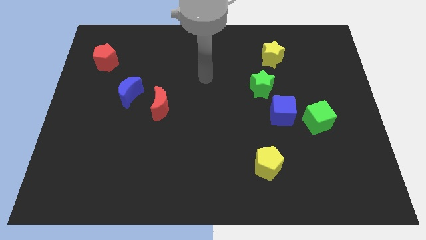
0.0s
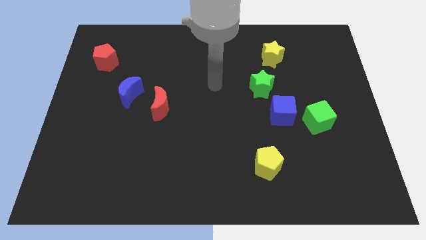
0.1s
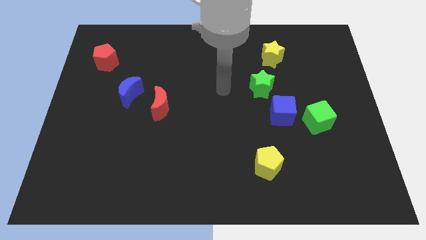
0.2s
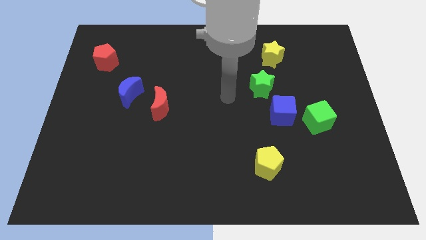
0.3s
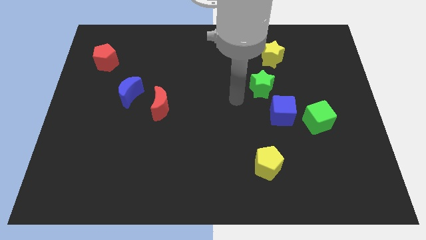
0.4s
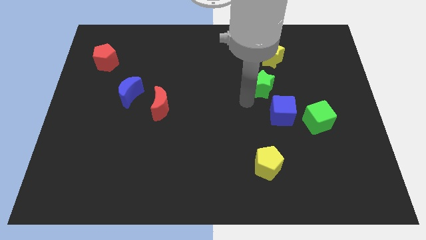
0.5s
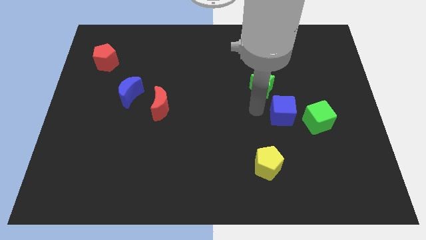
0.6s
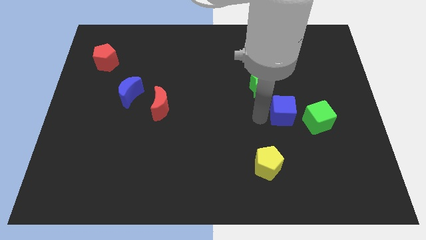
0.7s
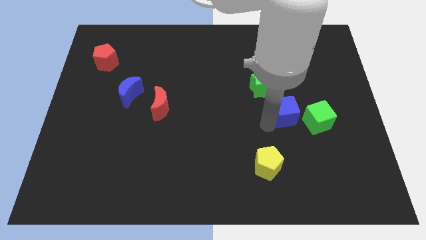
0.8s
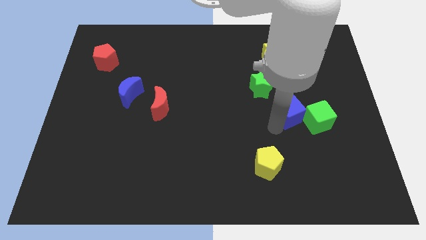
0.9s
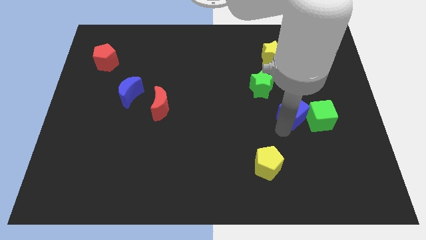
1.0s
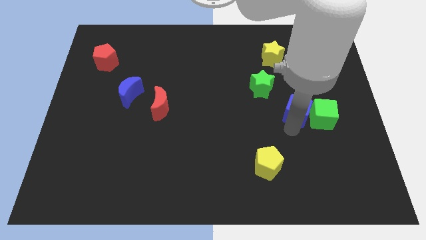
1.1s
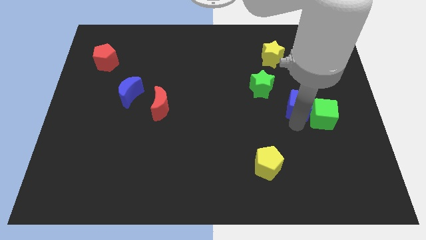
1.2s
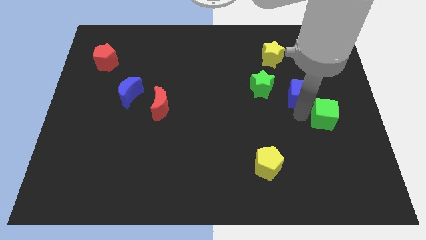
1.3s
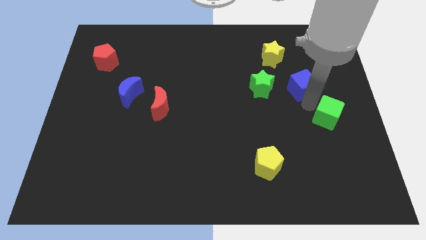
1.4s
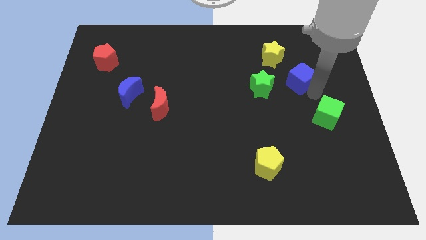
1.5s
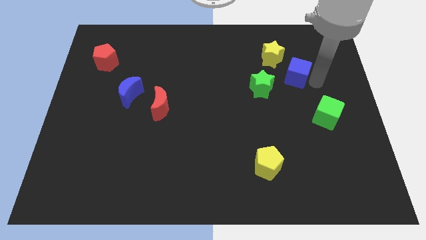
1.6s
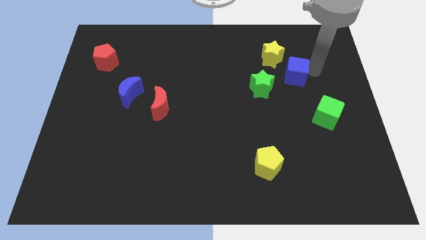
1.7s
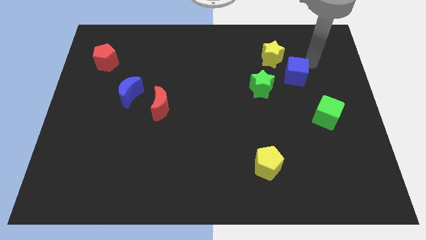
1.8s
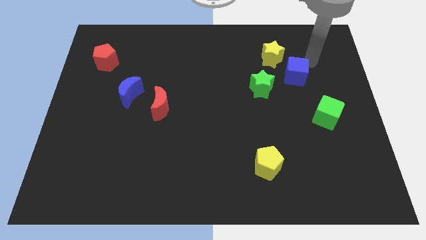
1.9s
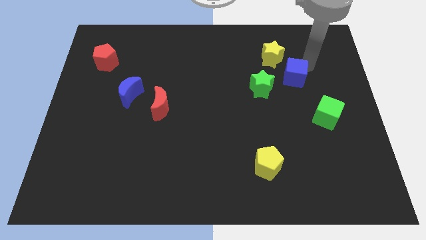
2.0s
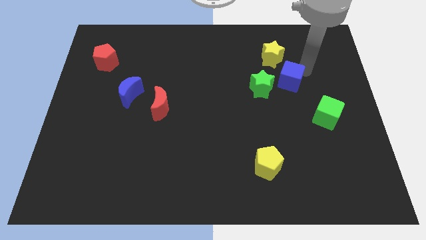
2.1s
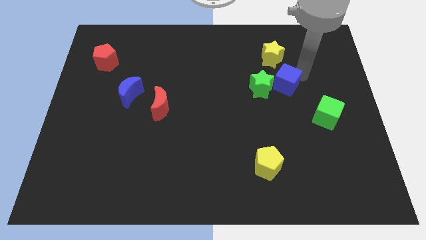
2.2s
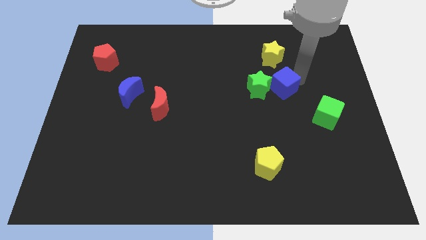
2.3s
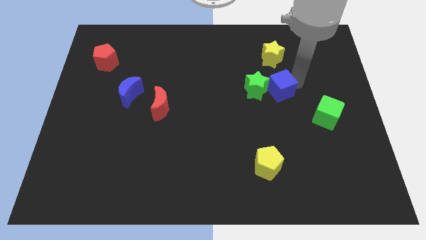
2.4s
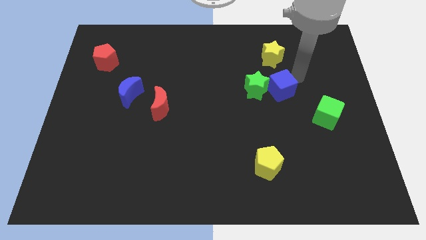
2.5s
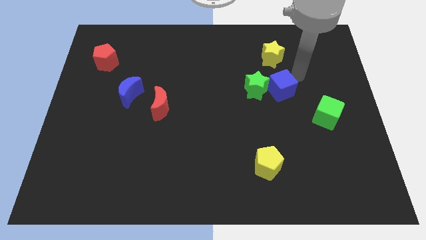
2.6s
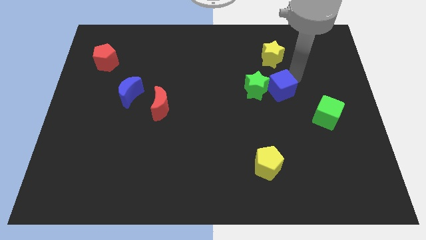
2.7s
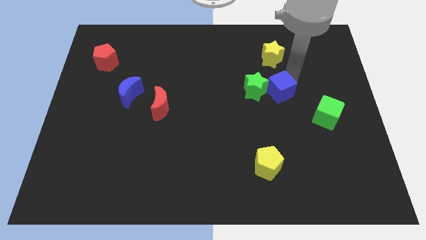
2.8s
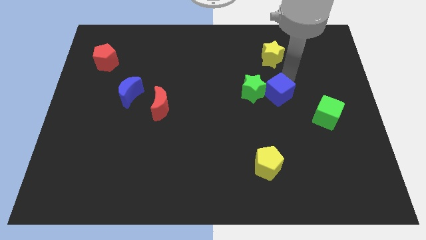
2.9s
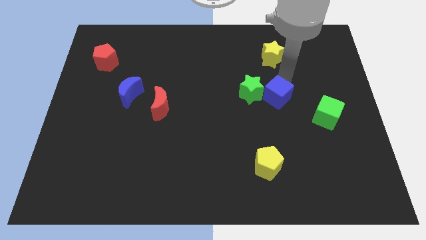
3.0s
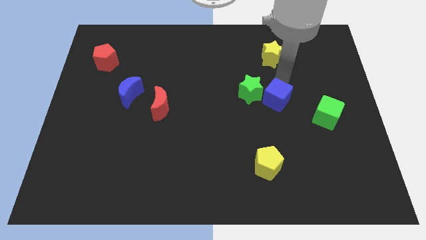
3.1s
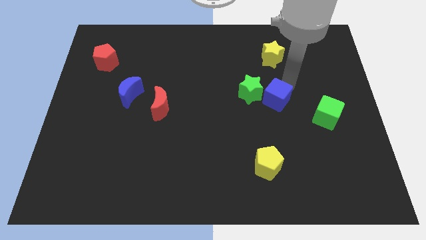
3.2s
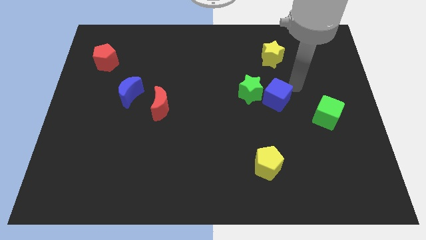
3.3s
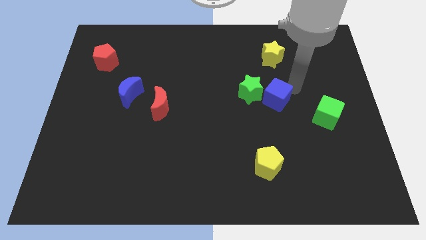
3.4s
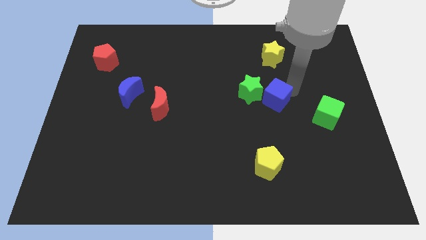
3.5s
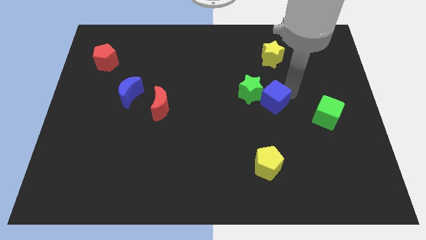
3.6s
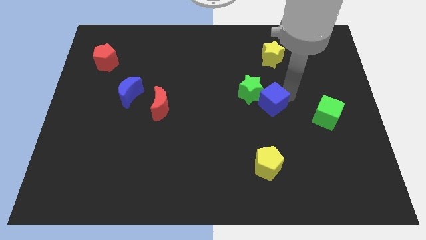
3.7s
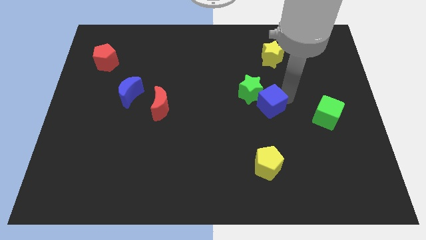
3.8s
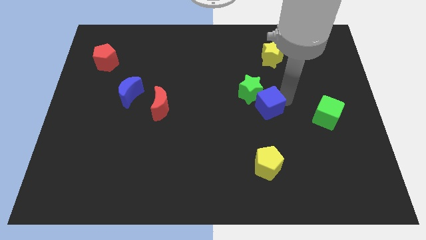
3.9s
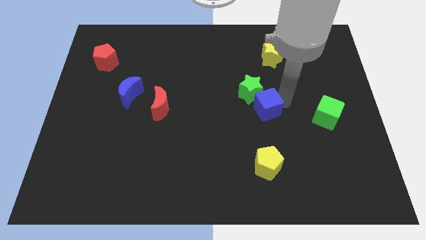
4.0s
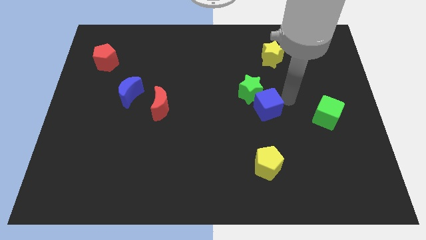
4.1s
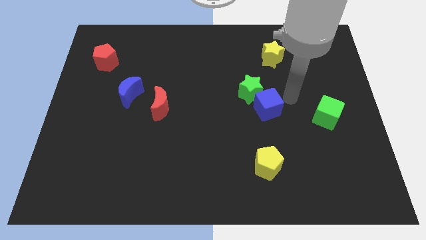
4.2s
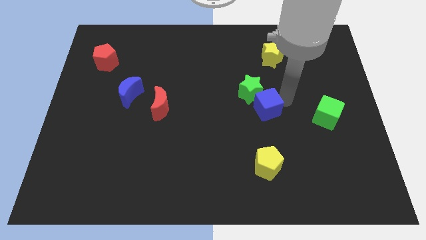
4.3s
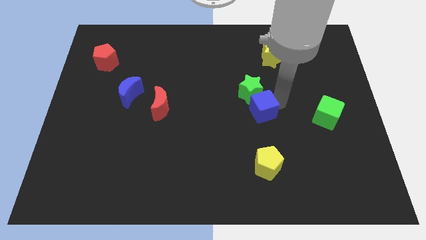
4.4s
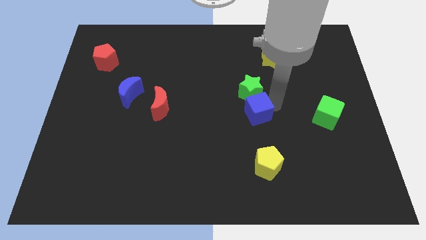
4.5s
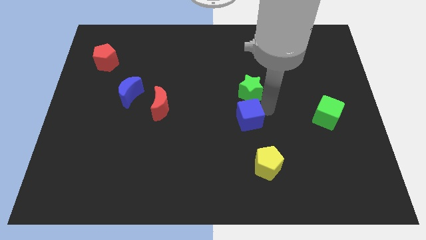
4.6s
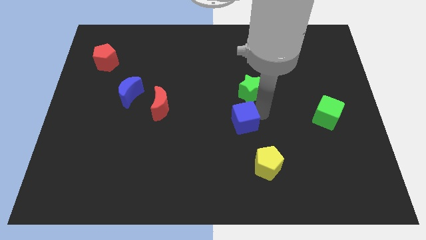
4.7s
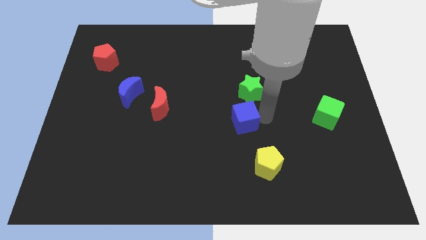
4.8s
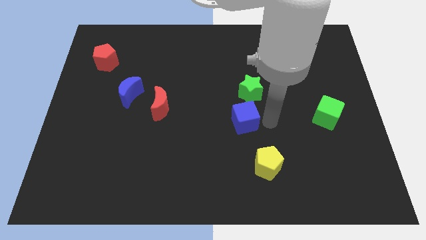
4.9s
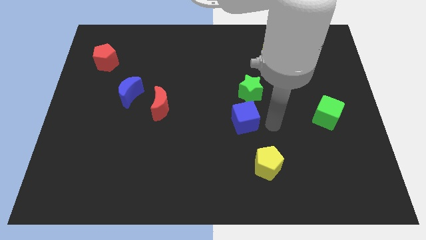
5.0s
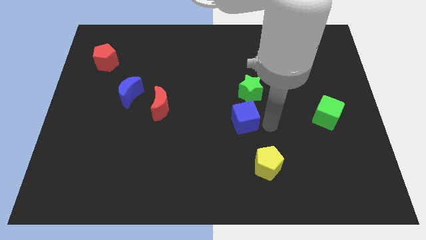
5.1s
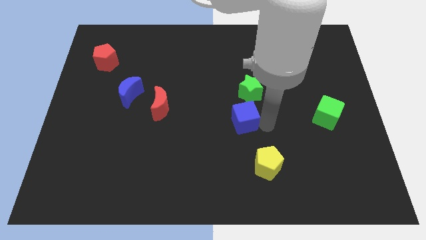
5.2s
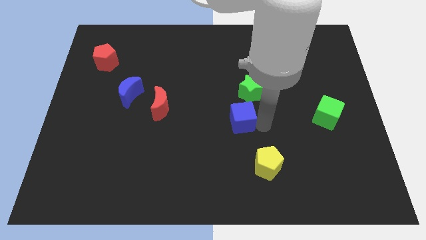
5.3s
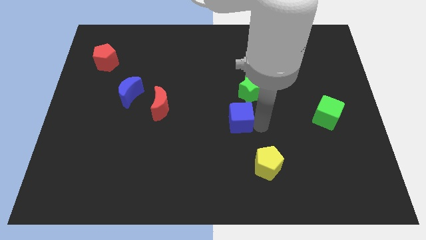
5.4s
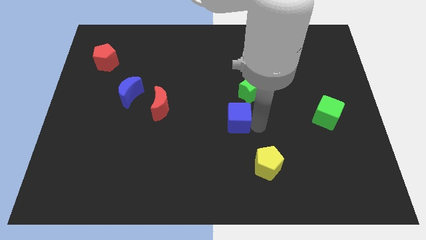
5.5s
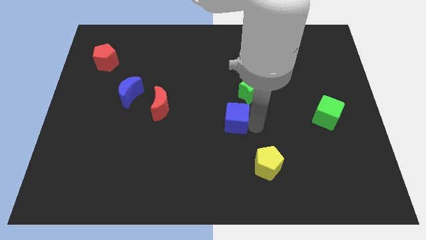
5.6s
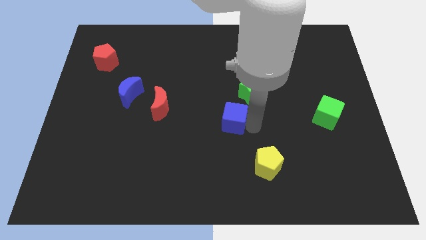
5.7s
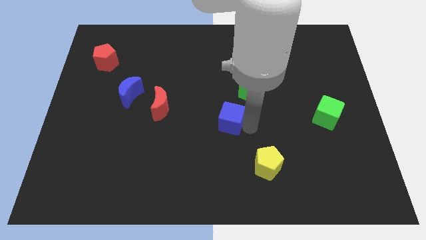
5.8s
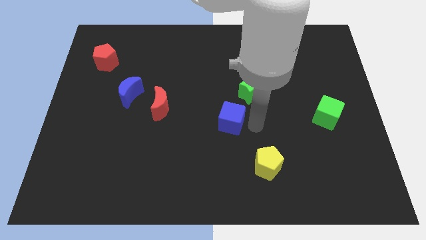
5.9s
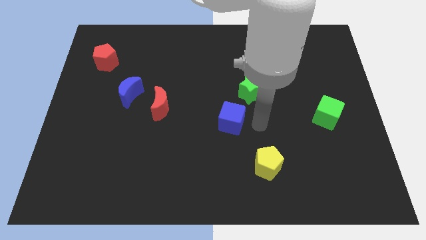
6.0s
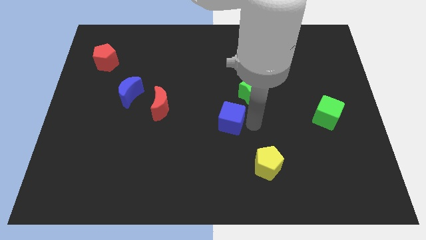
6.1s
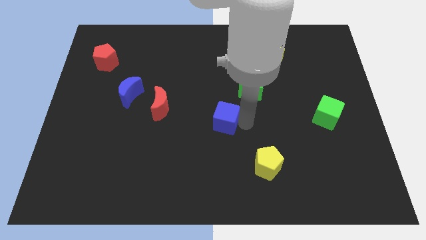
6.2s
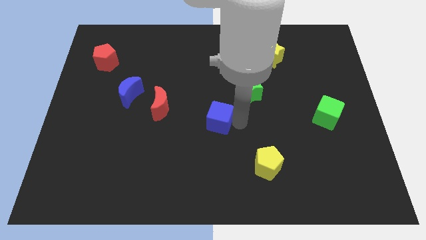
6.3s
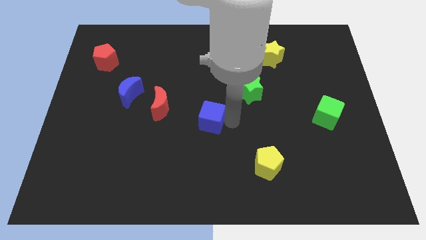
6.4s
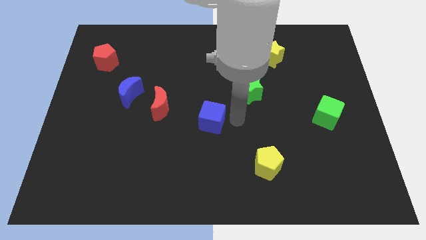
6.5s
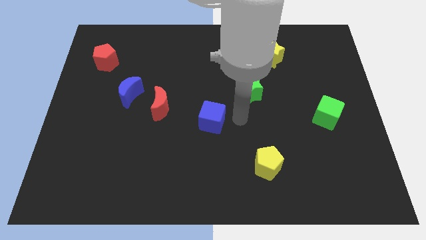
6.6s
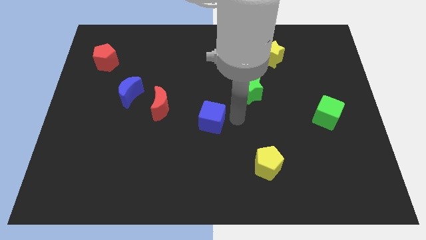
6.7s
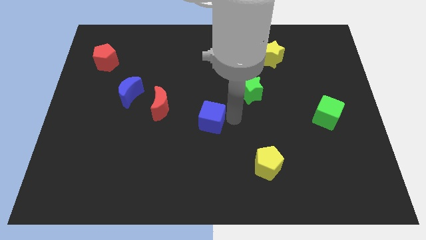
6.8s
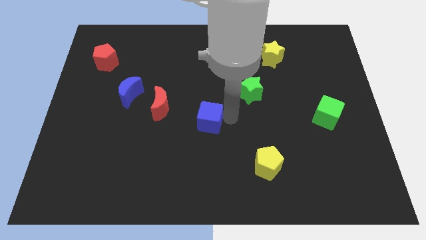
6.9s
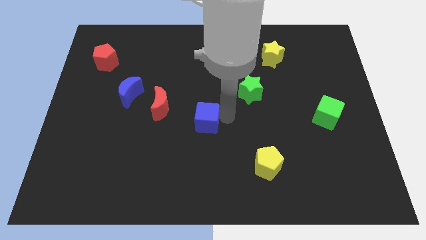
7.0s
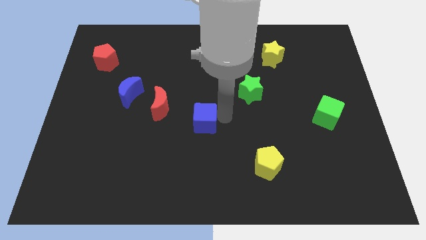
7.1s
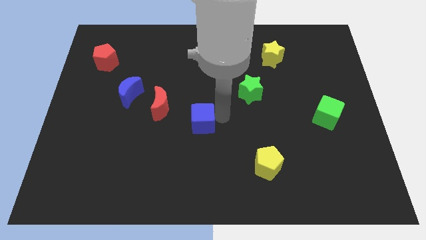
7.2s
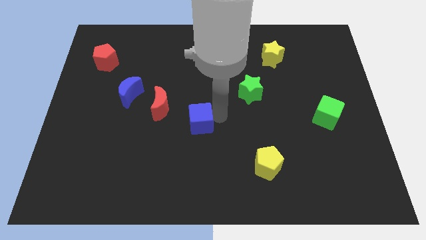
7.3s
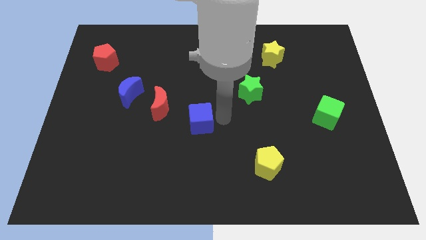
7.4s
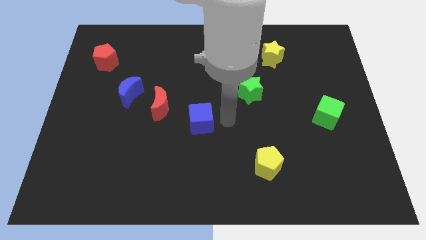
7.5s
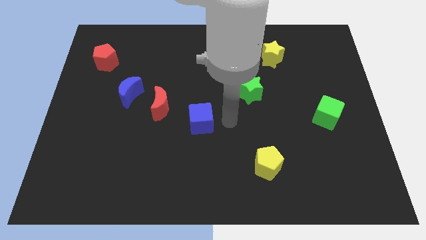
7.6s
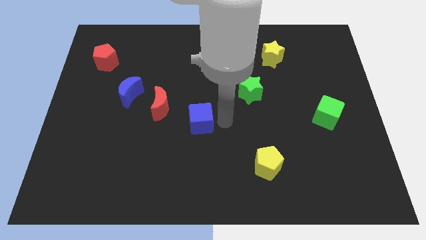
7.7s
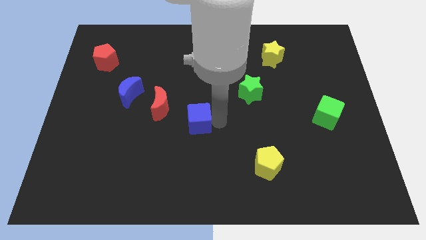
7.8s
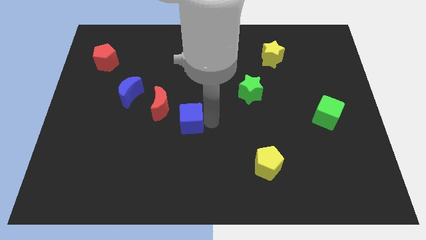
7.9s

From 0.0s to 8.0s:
slide the blue cube to the left

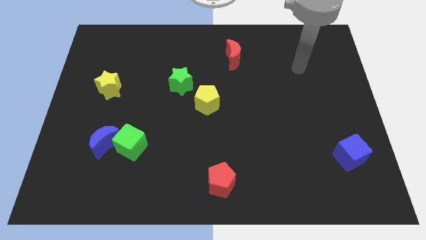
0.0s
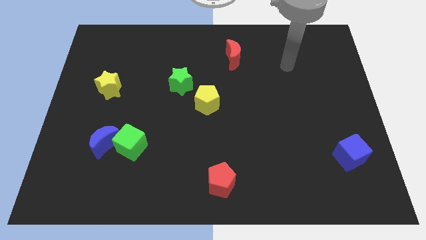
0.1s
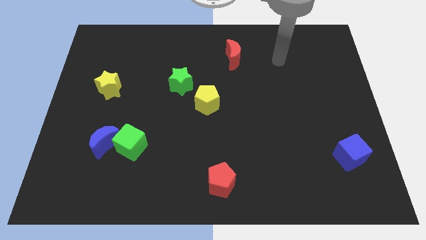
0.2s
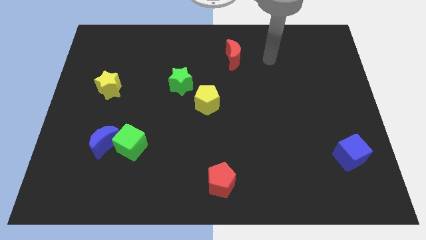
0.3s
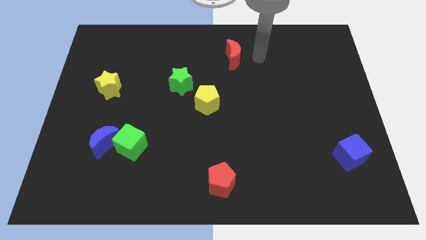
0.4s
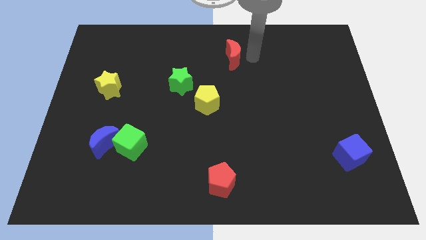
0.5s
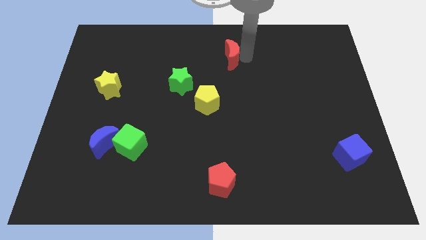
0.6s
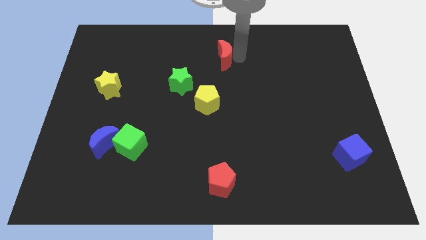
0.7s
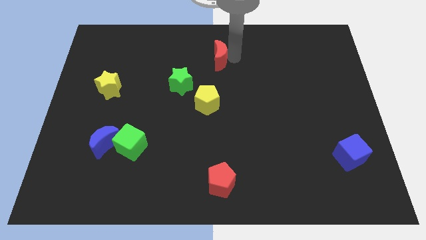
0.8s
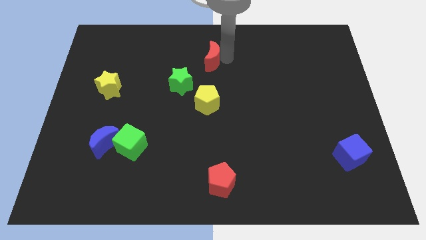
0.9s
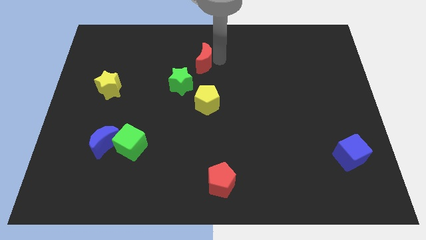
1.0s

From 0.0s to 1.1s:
move the red moon to the left somewhat
